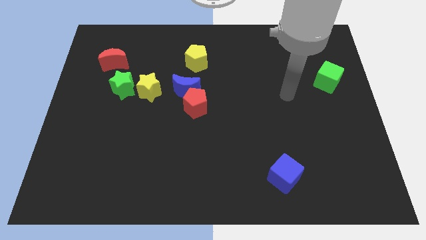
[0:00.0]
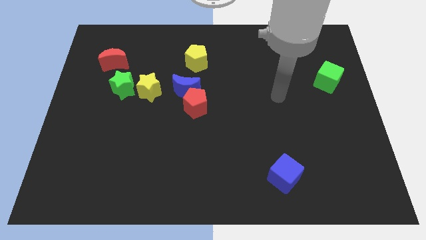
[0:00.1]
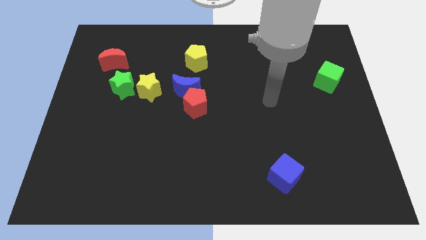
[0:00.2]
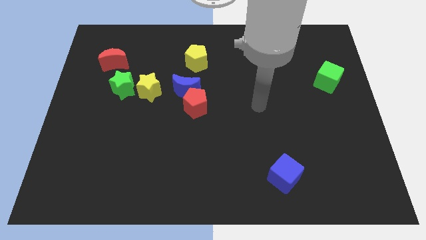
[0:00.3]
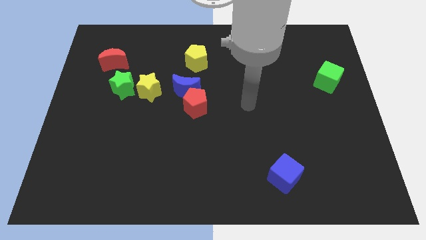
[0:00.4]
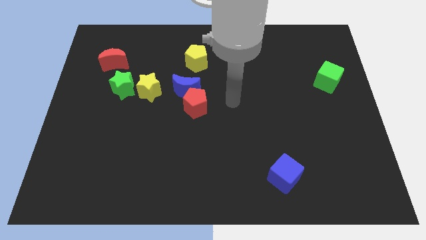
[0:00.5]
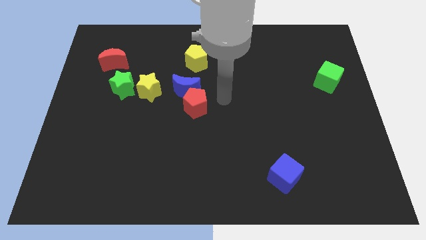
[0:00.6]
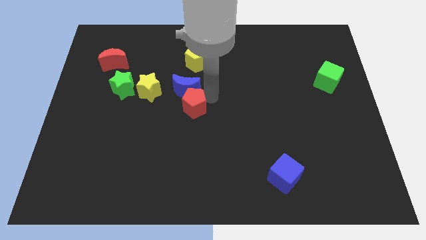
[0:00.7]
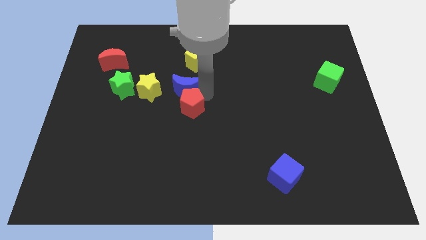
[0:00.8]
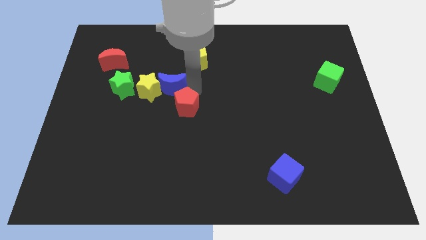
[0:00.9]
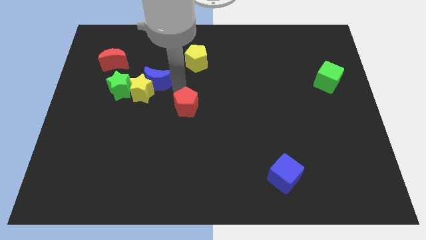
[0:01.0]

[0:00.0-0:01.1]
pull the red pentagon apart from the blue moon

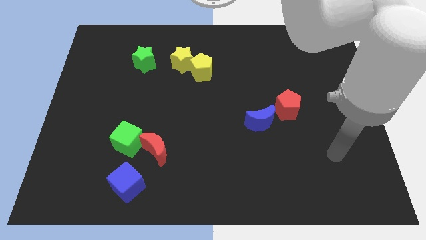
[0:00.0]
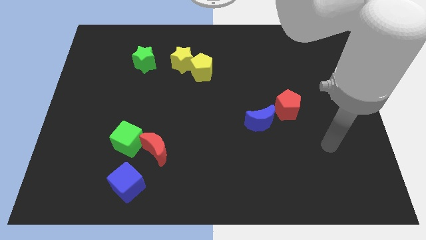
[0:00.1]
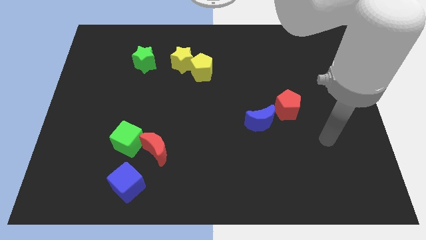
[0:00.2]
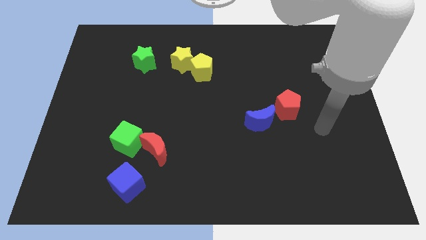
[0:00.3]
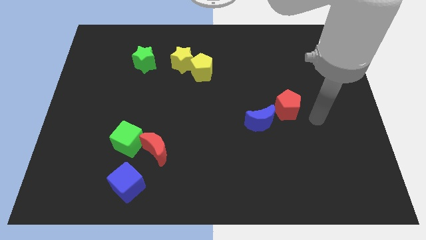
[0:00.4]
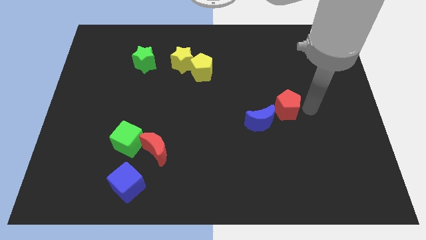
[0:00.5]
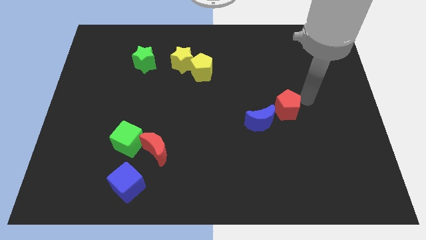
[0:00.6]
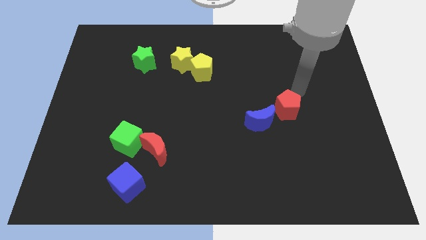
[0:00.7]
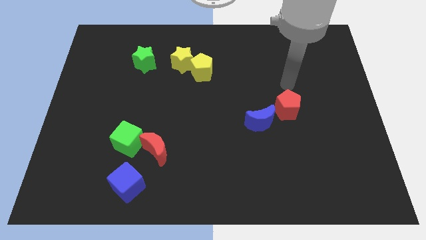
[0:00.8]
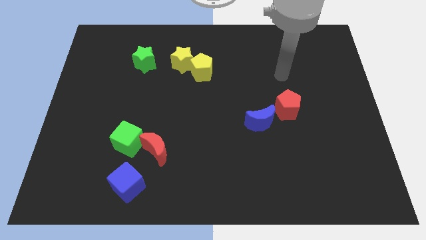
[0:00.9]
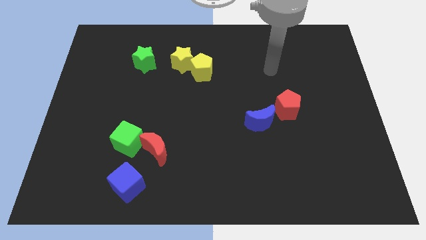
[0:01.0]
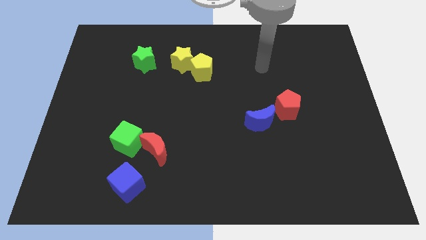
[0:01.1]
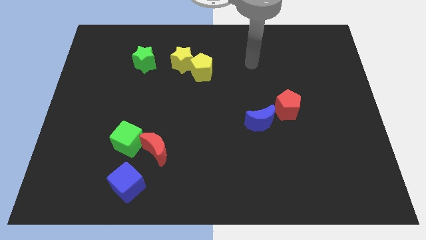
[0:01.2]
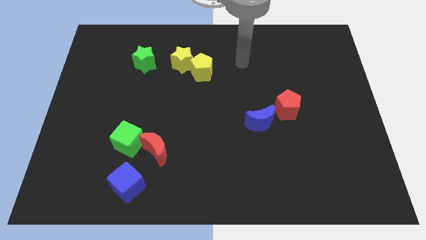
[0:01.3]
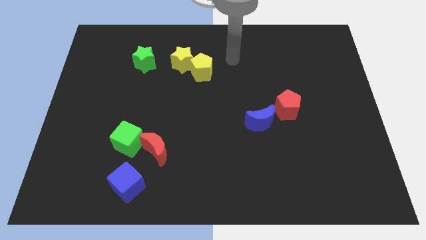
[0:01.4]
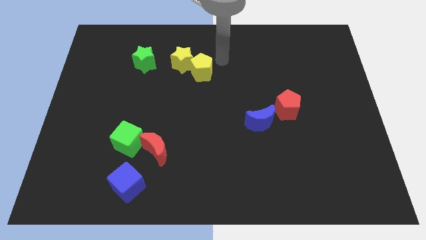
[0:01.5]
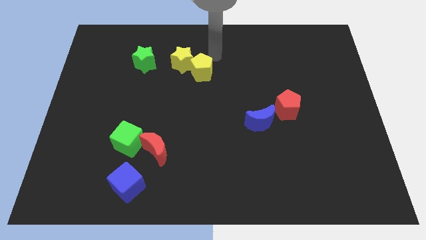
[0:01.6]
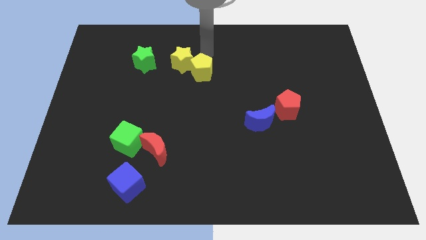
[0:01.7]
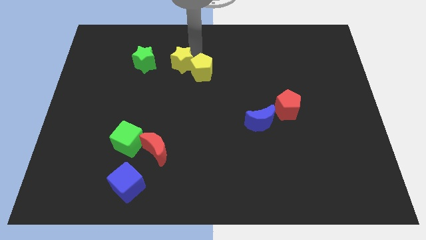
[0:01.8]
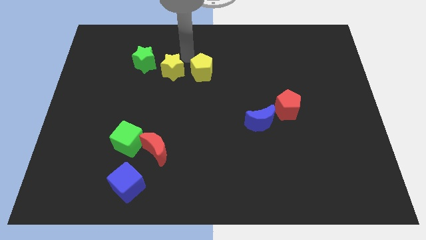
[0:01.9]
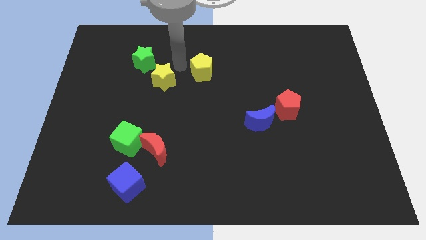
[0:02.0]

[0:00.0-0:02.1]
separate the yellow pentagon from the yellow star

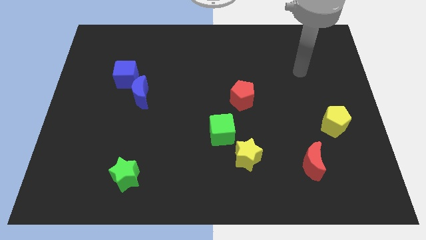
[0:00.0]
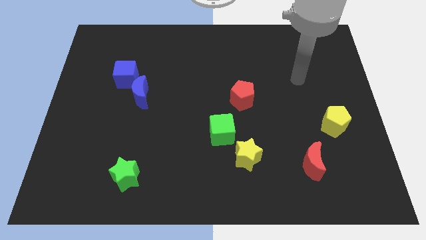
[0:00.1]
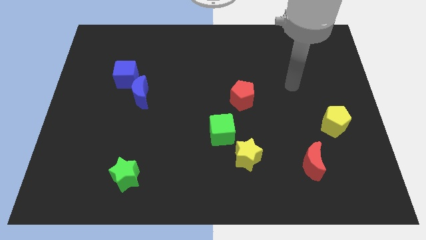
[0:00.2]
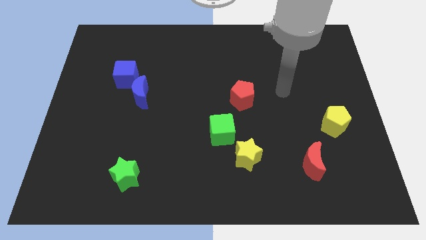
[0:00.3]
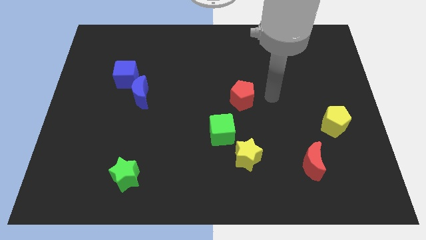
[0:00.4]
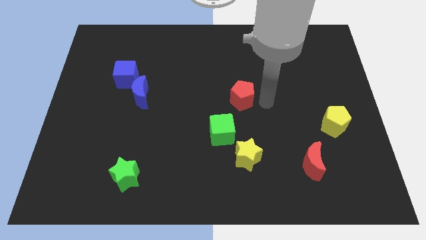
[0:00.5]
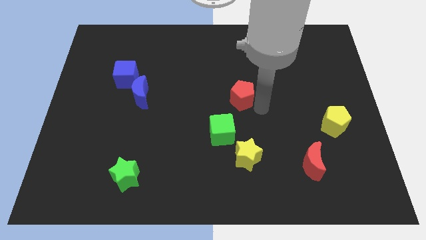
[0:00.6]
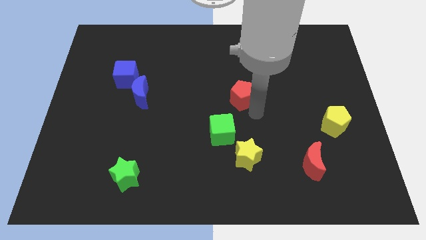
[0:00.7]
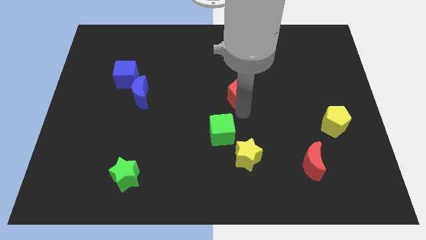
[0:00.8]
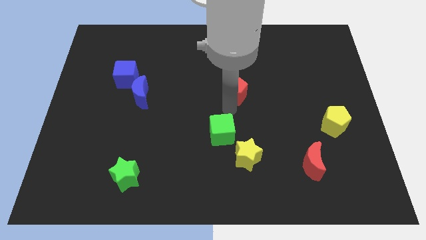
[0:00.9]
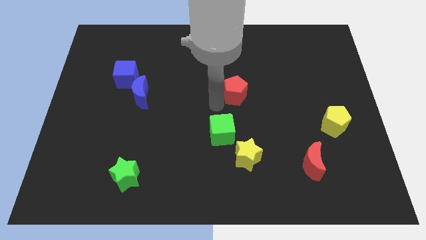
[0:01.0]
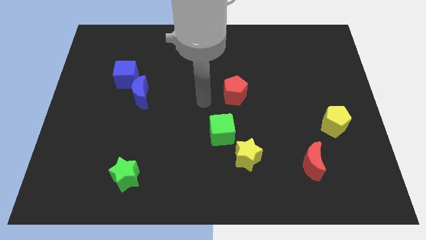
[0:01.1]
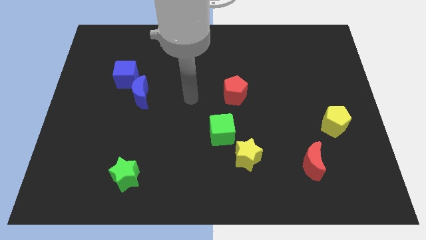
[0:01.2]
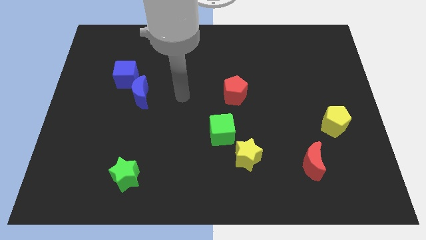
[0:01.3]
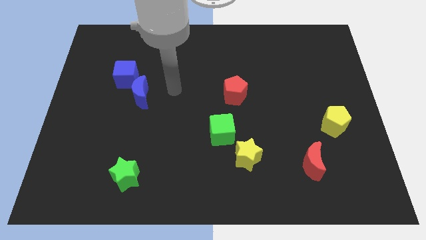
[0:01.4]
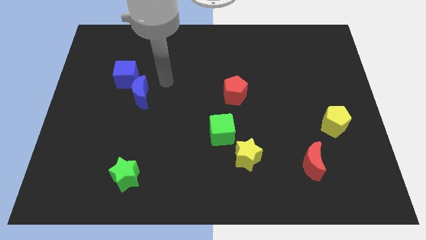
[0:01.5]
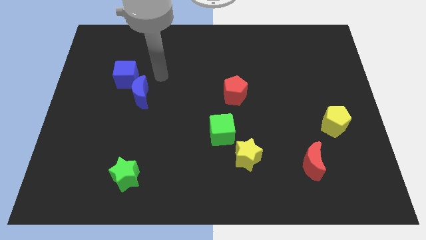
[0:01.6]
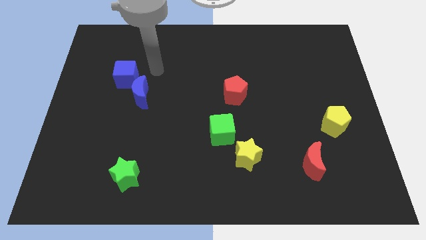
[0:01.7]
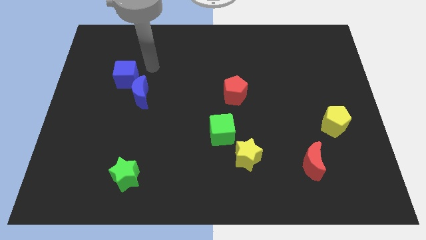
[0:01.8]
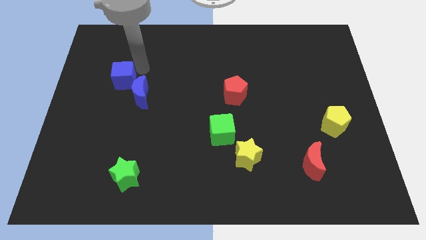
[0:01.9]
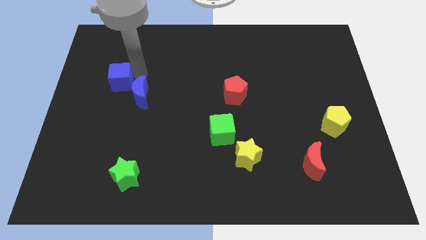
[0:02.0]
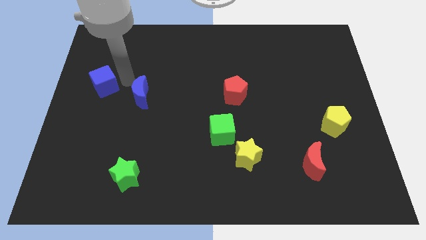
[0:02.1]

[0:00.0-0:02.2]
move the blue moon away from the blue cube

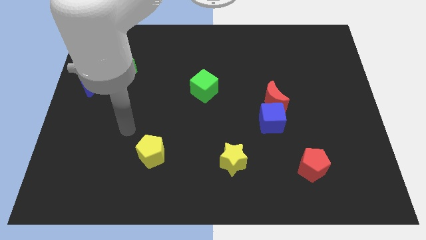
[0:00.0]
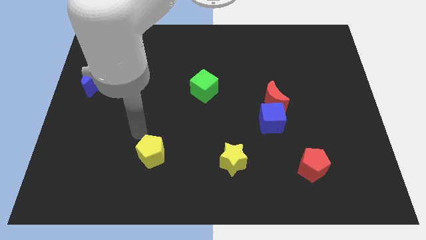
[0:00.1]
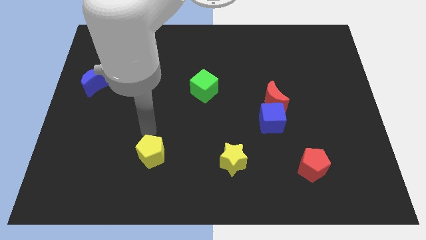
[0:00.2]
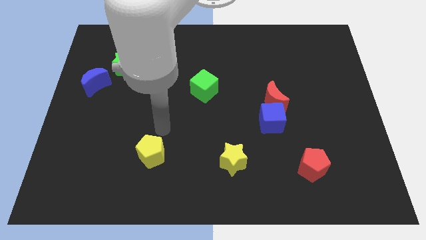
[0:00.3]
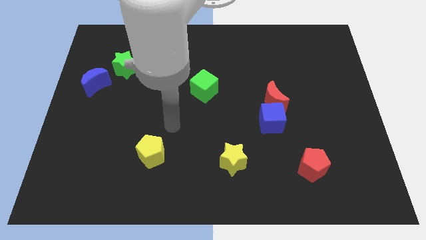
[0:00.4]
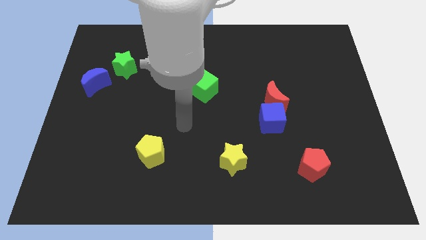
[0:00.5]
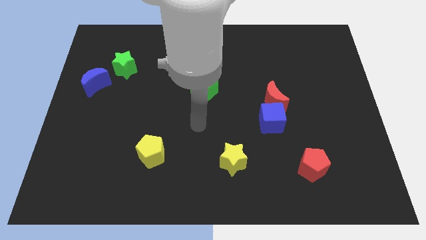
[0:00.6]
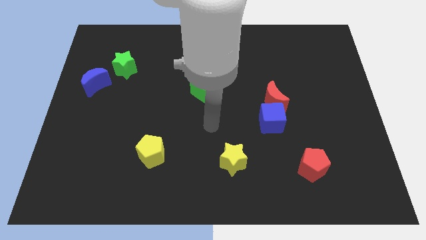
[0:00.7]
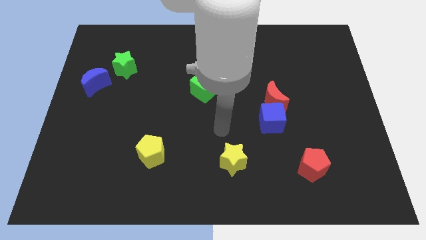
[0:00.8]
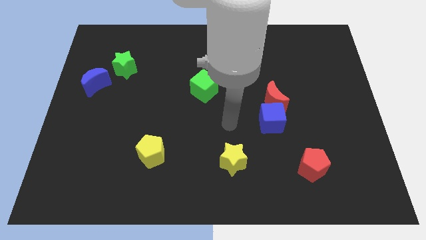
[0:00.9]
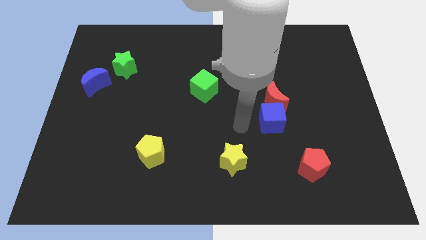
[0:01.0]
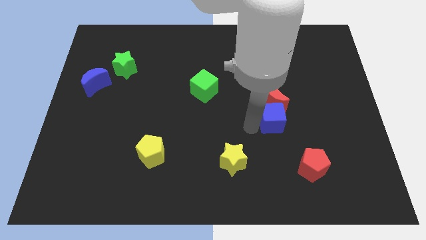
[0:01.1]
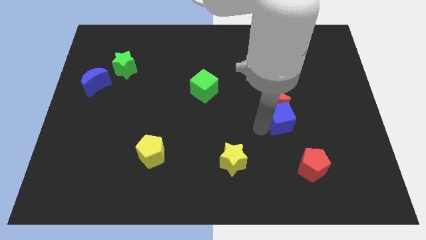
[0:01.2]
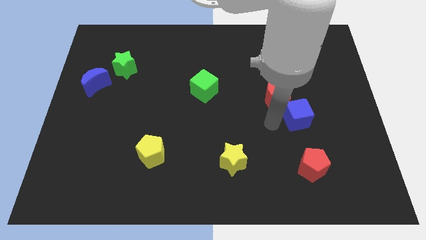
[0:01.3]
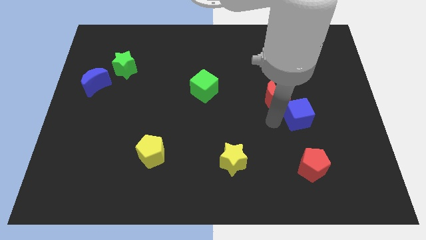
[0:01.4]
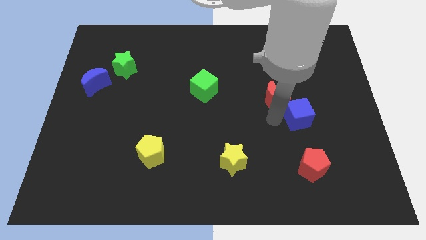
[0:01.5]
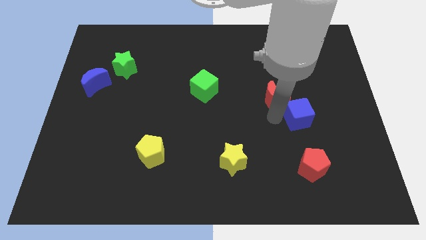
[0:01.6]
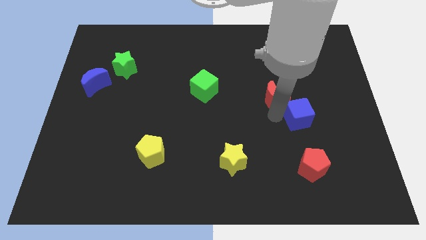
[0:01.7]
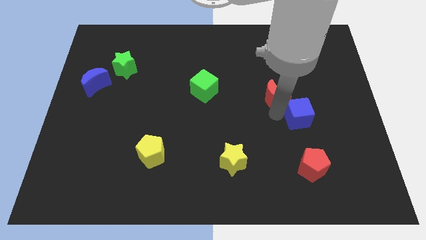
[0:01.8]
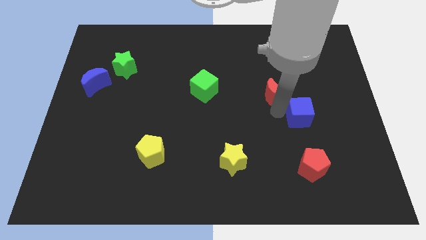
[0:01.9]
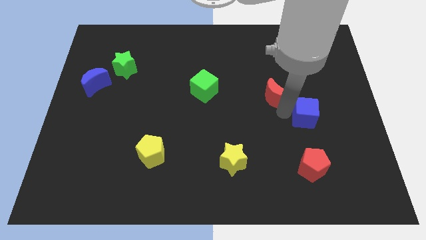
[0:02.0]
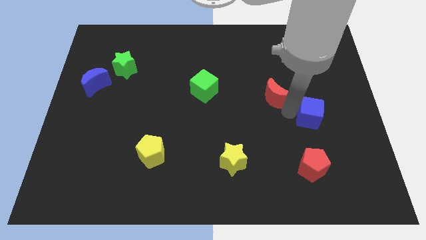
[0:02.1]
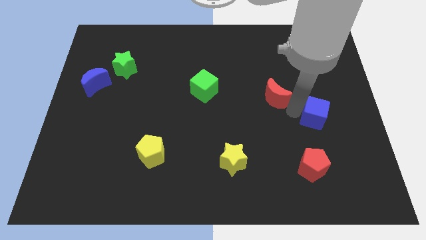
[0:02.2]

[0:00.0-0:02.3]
move the red moon away from the blue cube

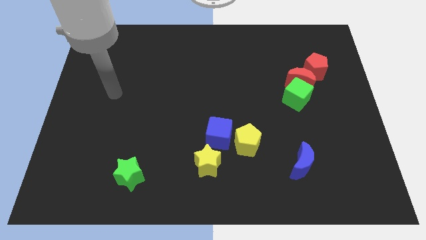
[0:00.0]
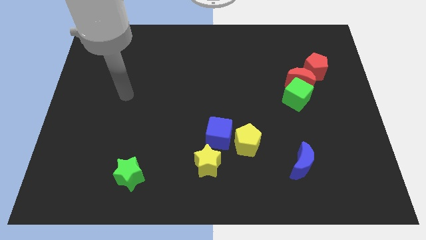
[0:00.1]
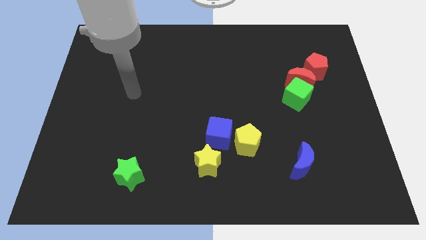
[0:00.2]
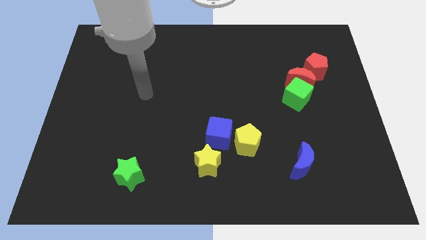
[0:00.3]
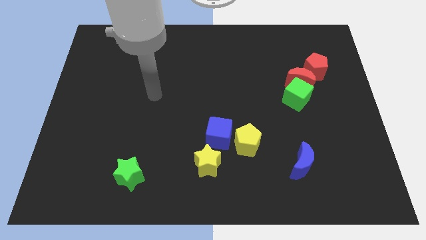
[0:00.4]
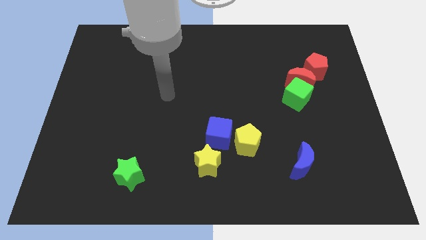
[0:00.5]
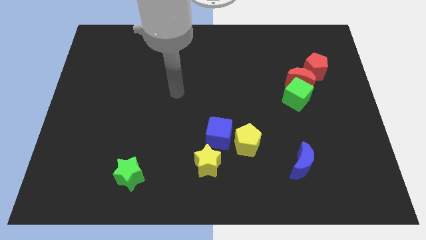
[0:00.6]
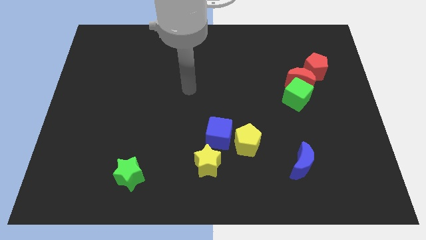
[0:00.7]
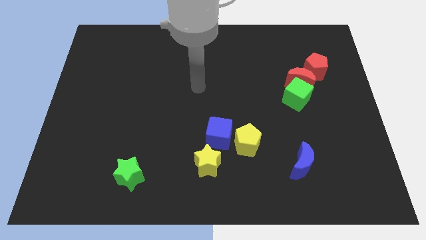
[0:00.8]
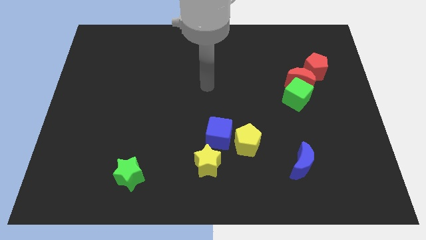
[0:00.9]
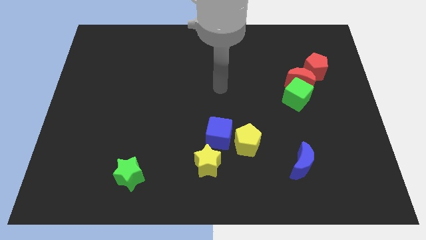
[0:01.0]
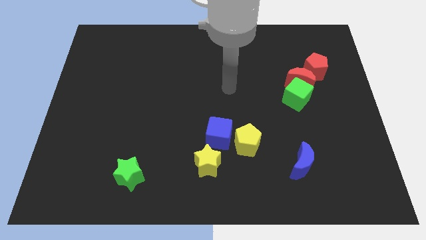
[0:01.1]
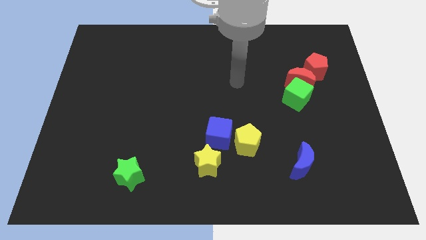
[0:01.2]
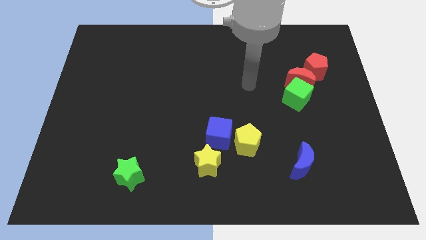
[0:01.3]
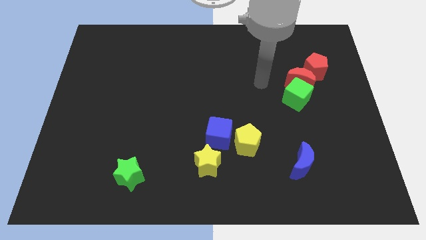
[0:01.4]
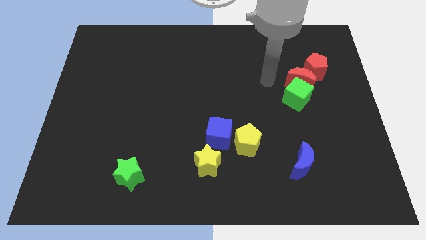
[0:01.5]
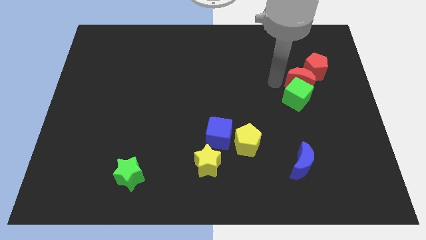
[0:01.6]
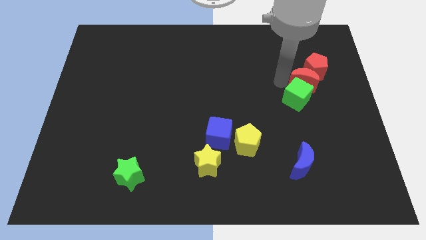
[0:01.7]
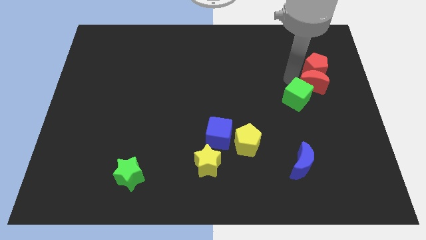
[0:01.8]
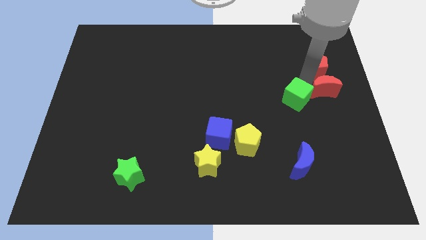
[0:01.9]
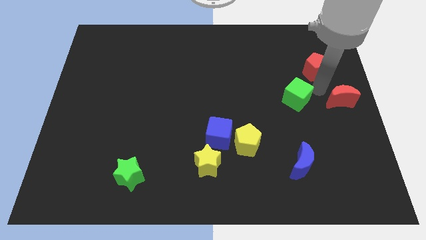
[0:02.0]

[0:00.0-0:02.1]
move the green cube away from the red moon
